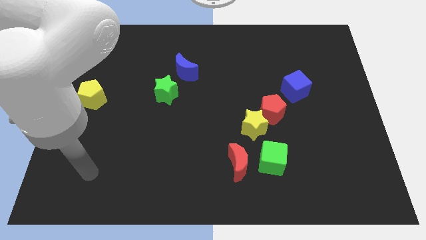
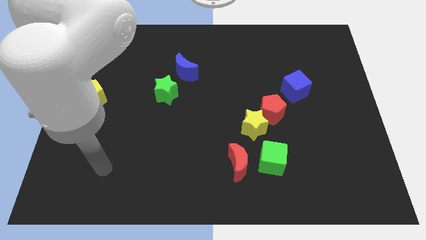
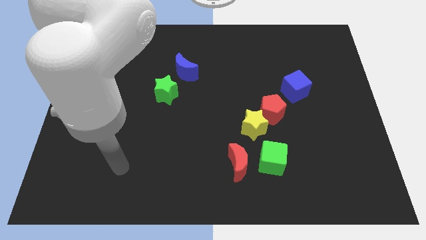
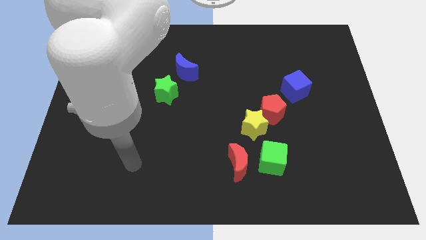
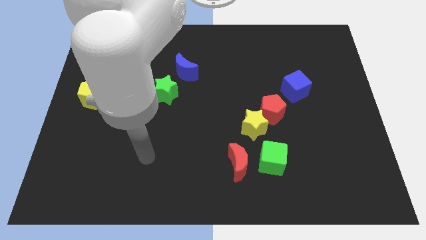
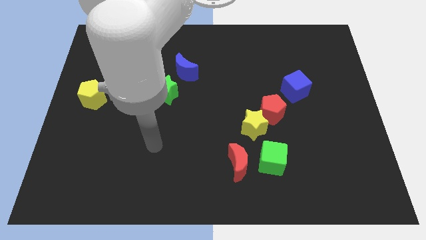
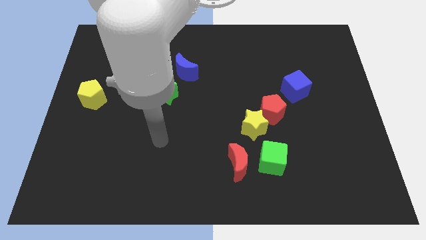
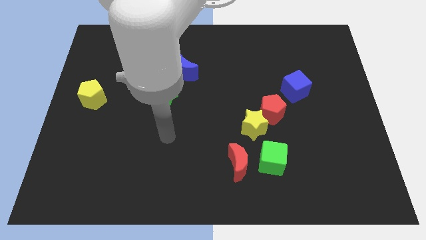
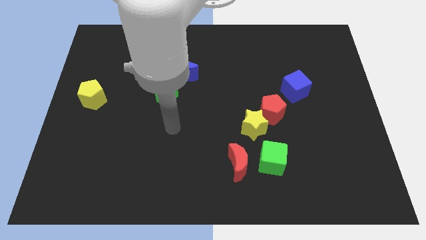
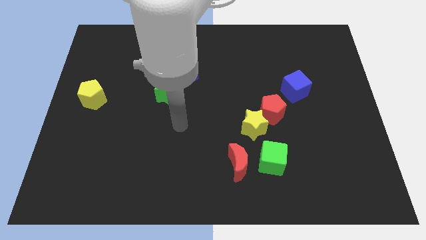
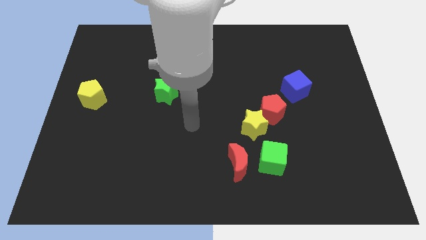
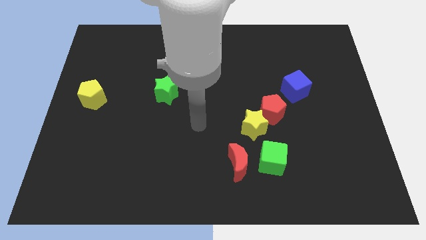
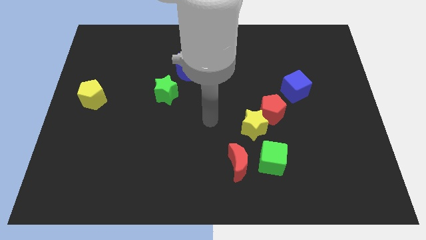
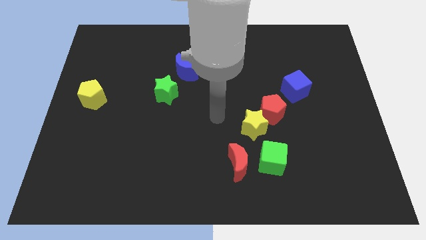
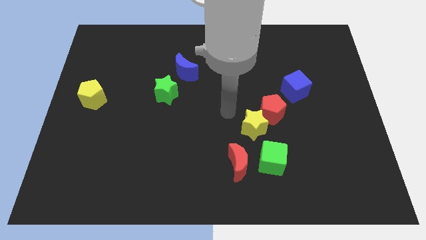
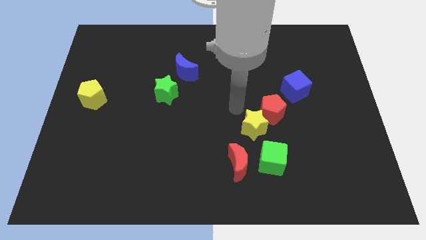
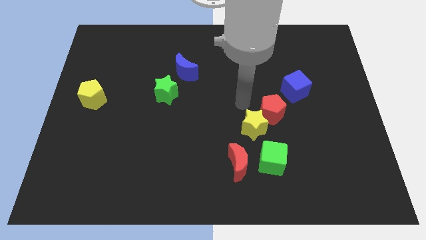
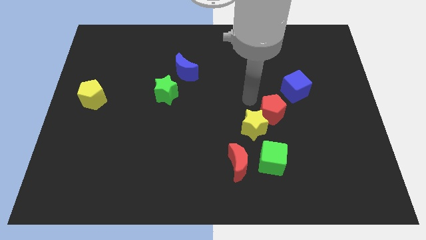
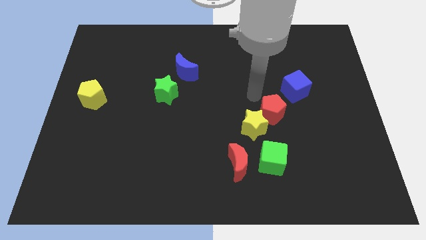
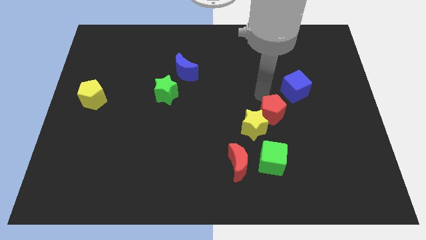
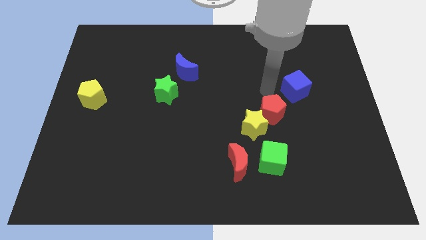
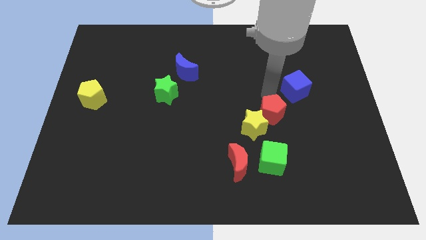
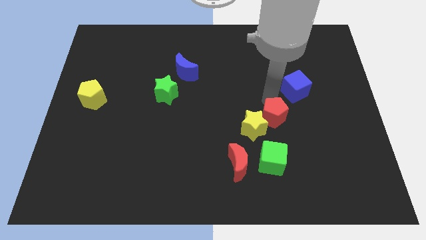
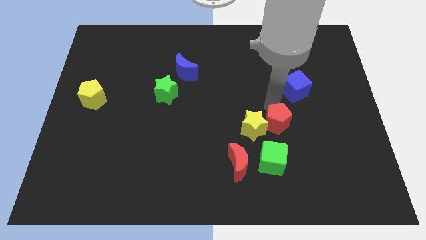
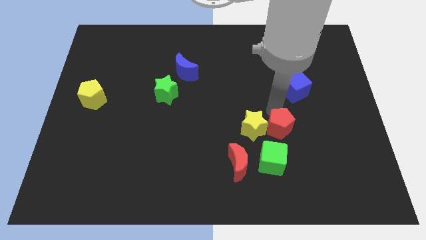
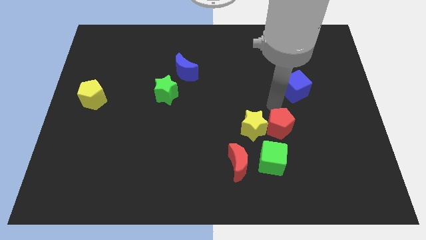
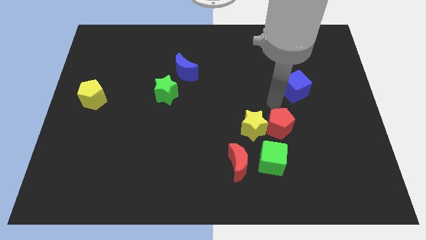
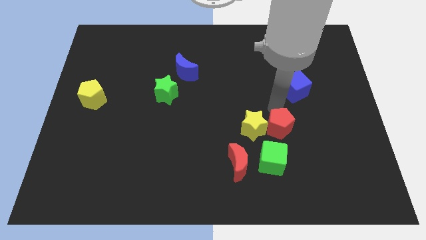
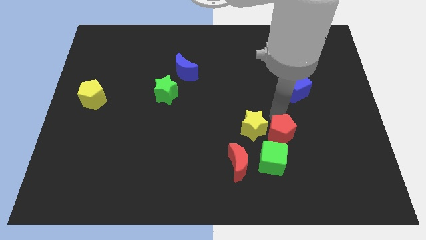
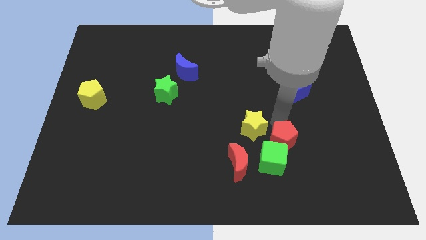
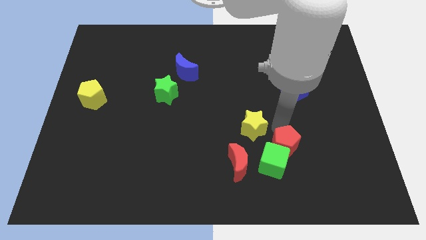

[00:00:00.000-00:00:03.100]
move the red pentagon away from the yellow star and blue cube

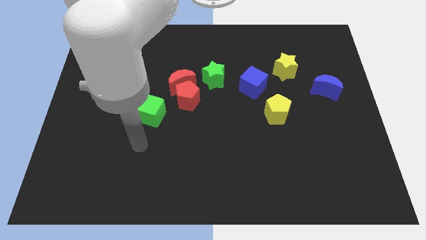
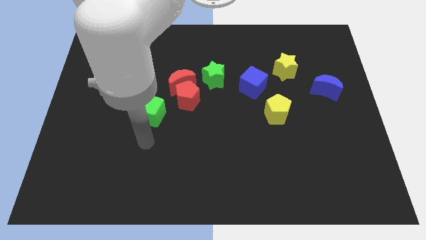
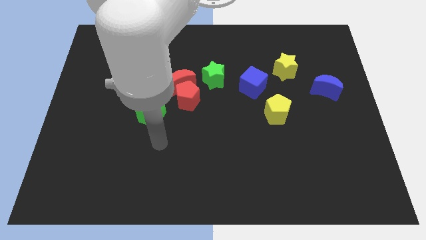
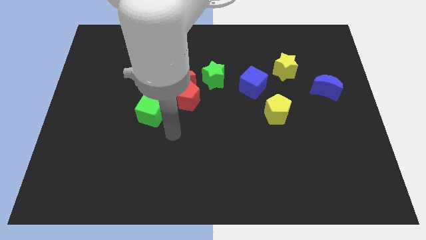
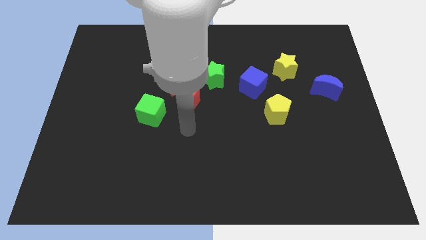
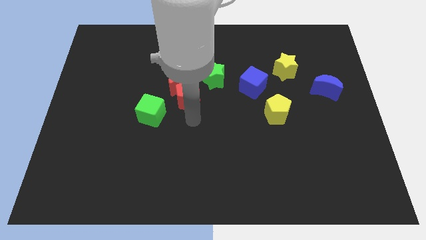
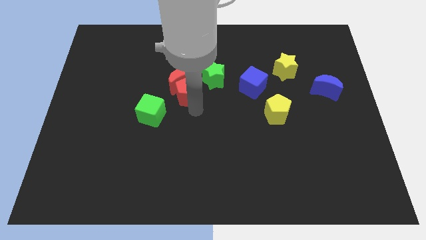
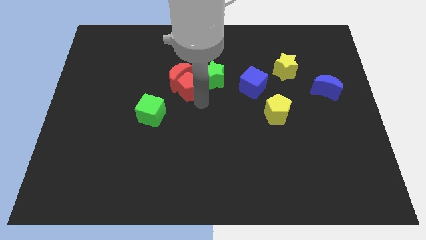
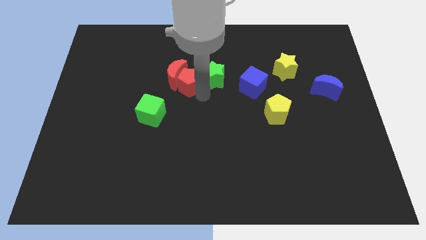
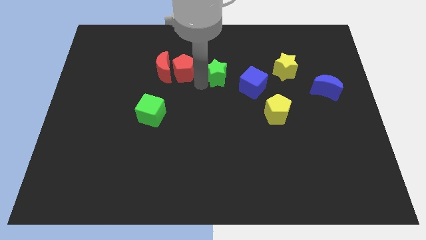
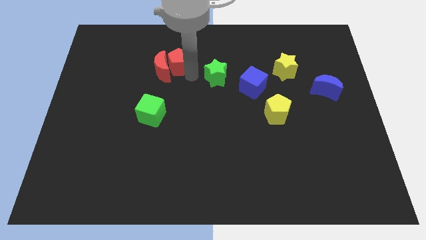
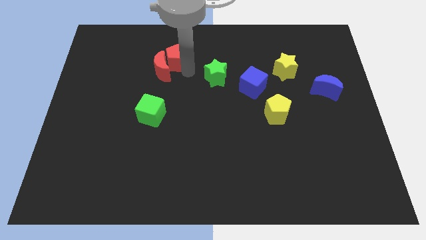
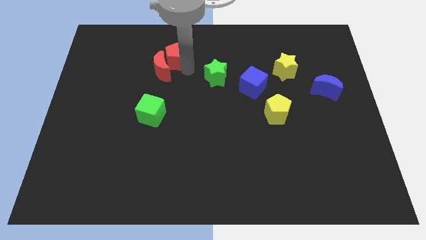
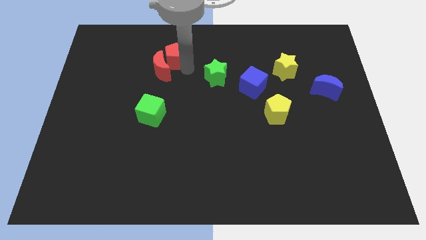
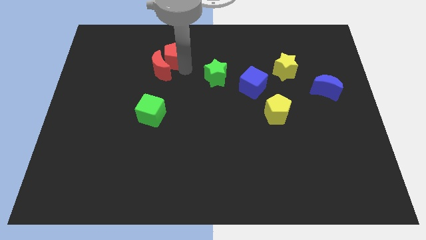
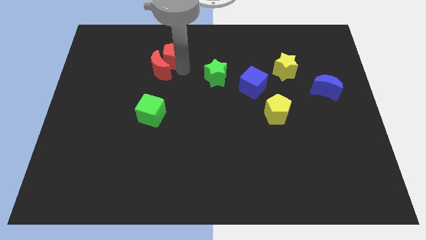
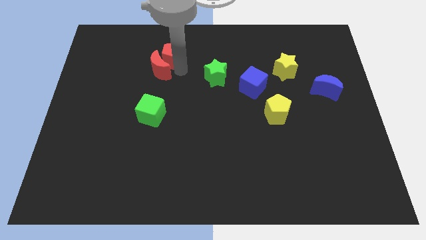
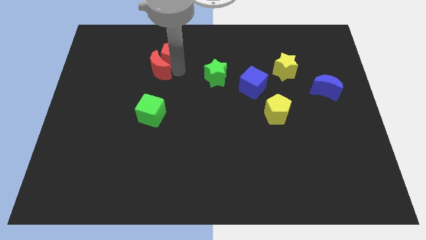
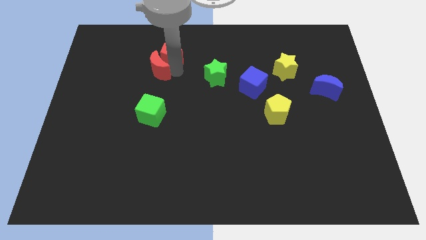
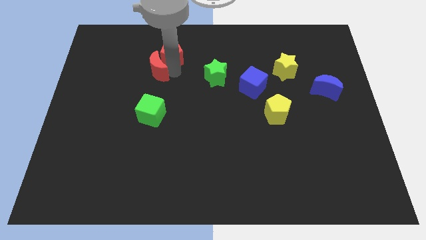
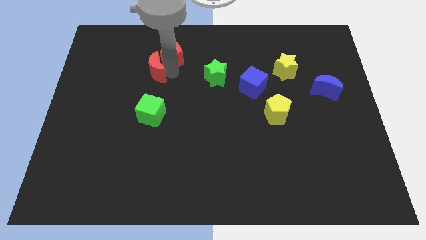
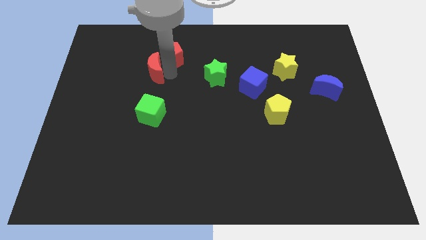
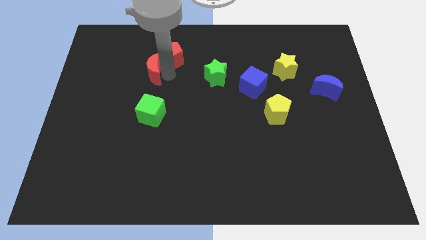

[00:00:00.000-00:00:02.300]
pull the red moon apart from the red pentagon and green star

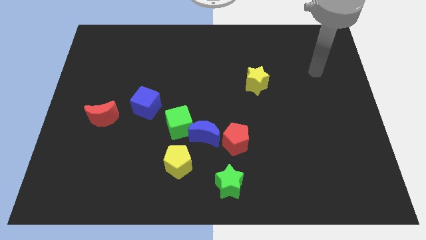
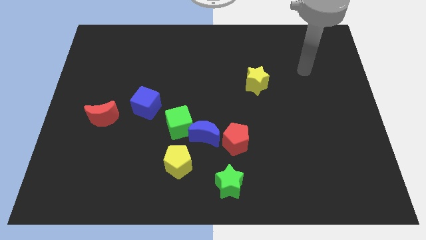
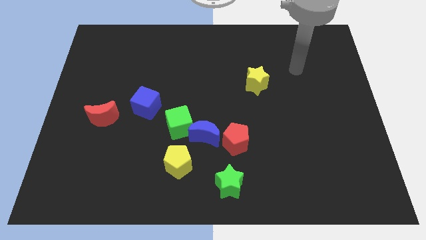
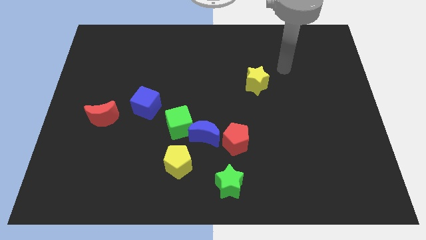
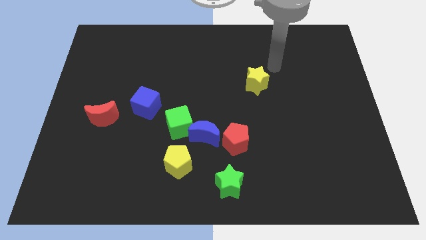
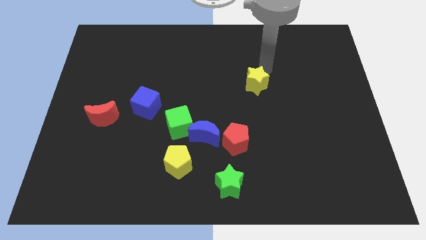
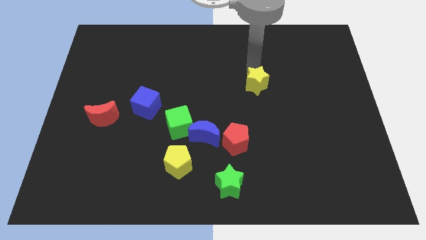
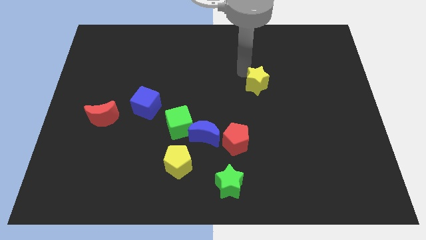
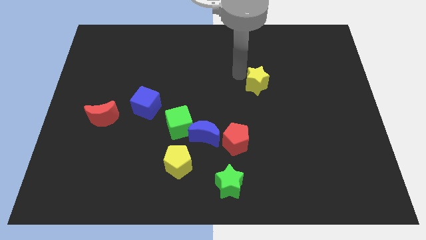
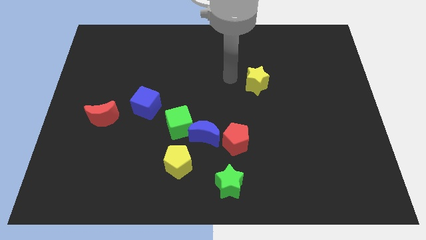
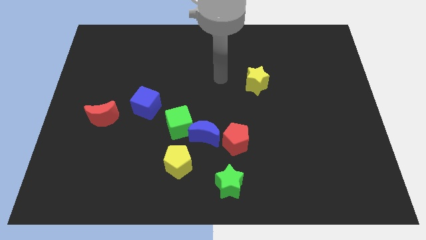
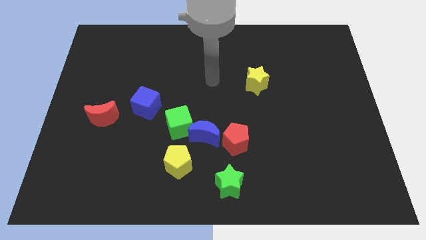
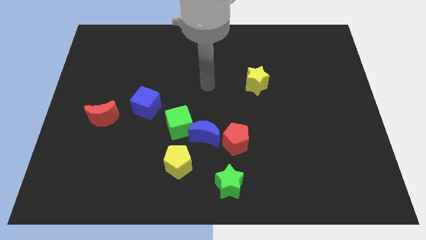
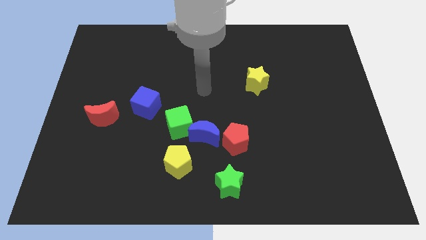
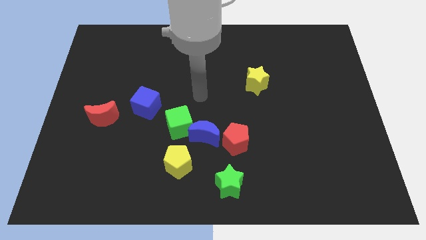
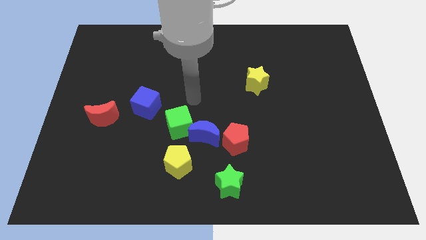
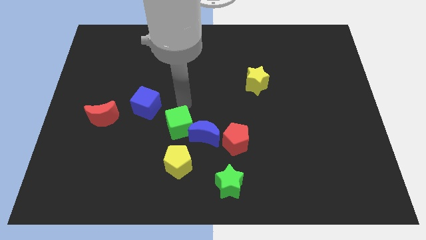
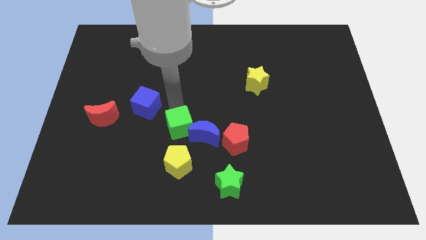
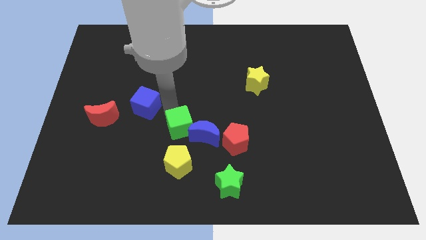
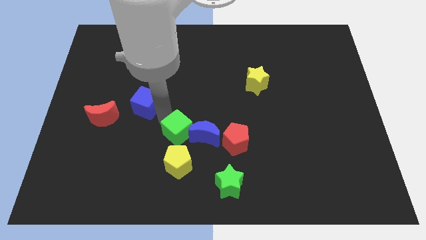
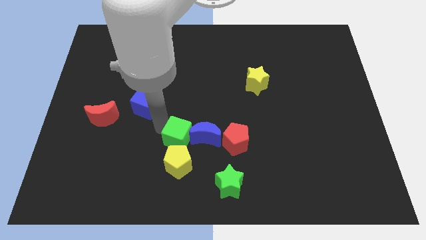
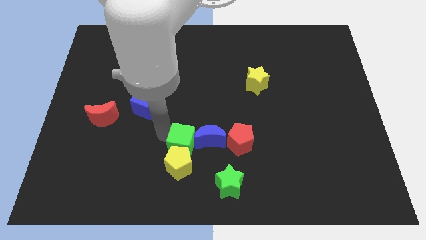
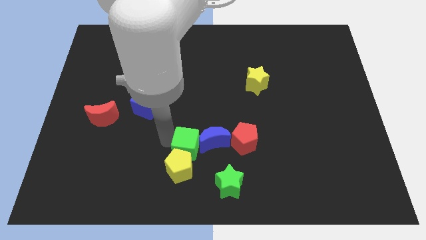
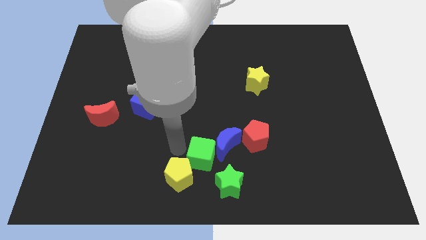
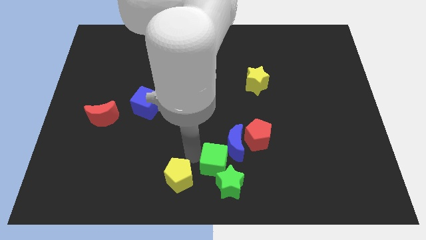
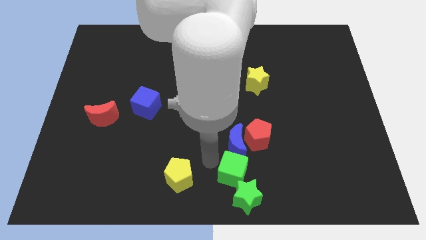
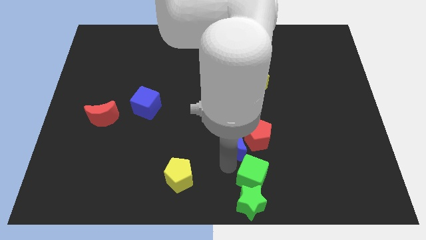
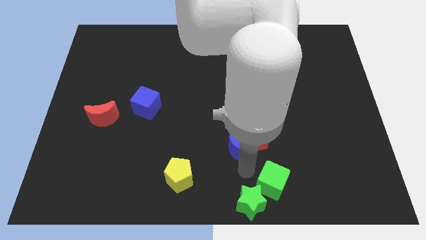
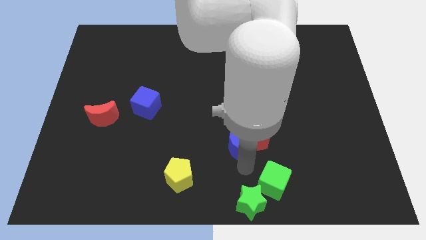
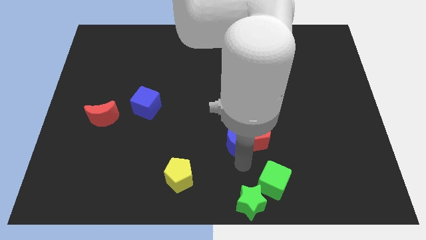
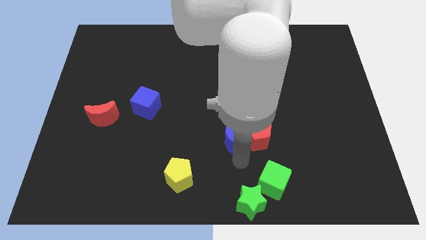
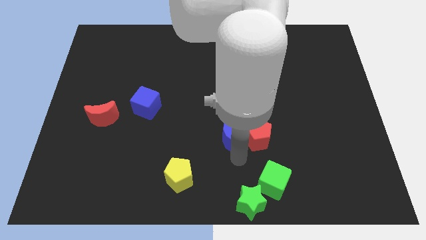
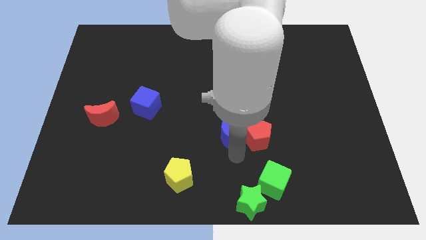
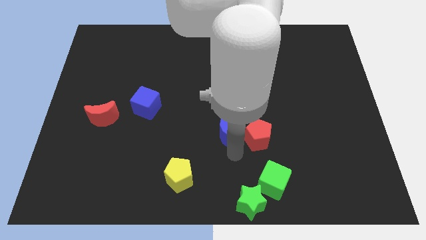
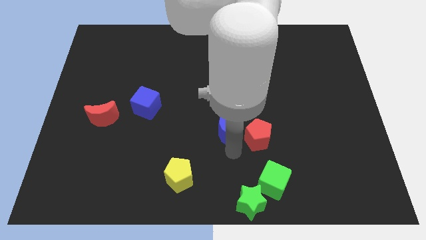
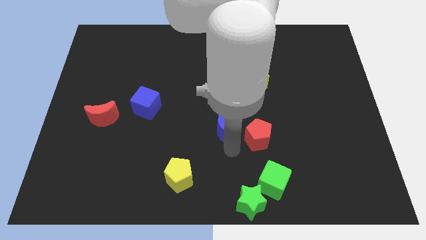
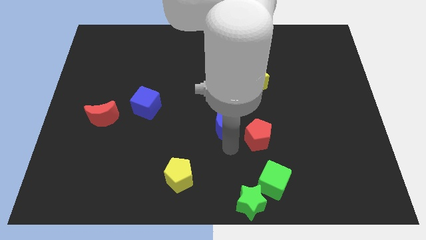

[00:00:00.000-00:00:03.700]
move the blue moon away from the green cube, red pentagon, and yellow pentagon

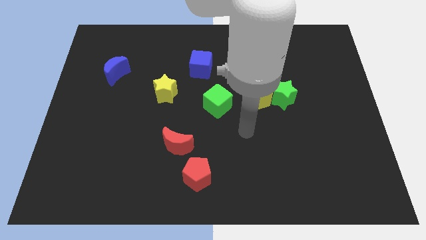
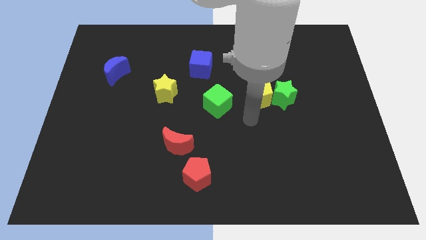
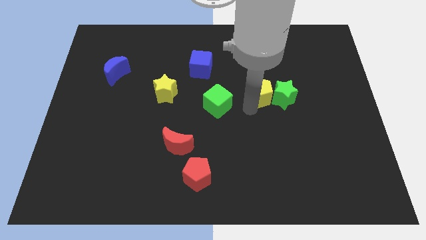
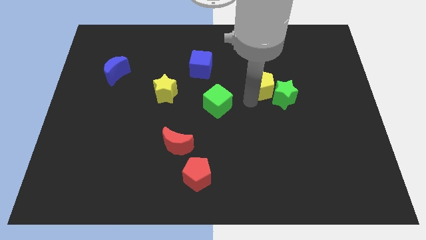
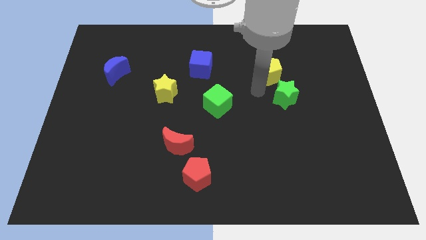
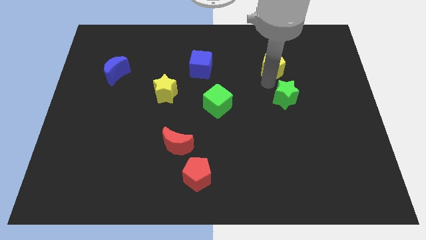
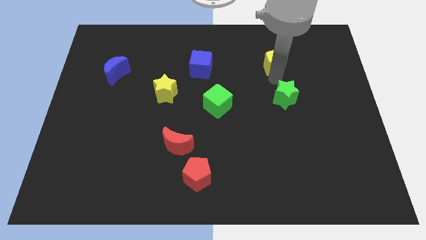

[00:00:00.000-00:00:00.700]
separate the green star from the yellow pentagon
